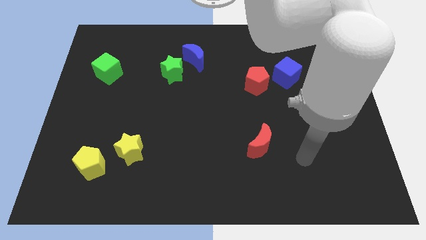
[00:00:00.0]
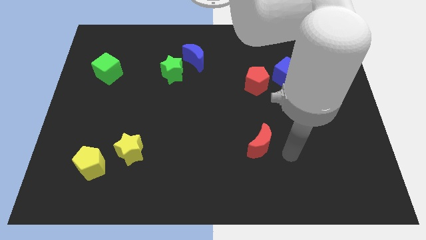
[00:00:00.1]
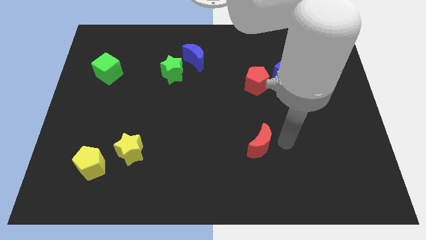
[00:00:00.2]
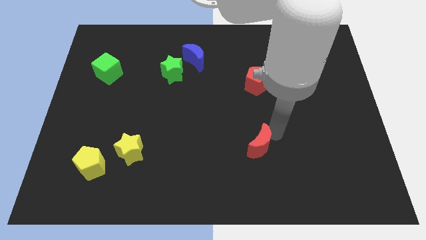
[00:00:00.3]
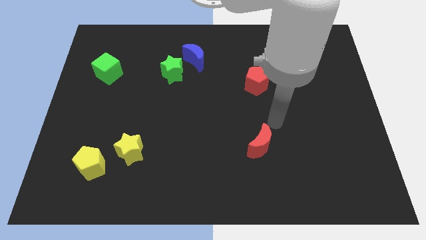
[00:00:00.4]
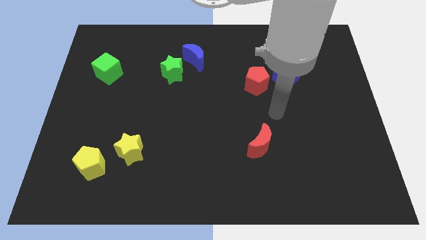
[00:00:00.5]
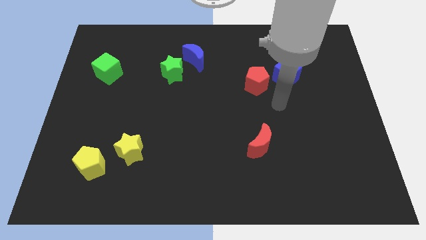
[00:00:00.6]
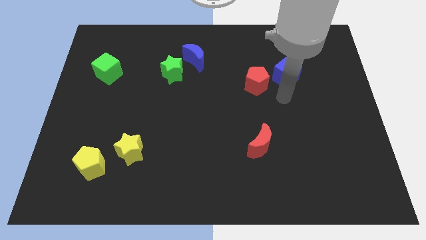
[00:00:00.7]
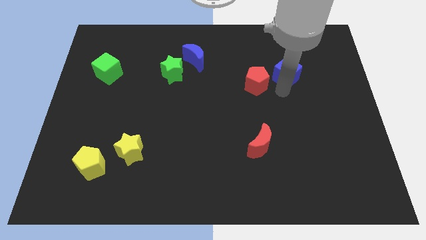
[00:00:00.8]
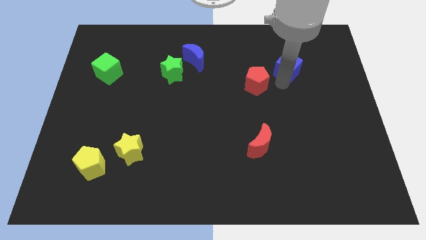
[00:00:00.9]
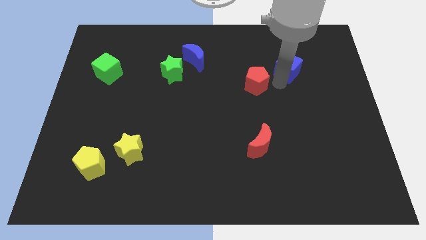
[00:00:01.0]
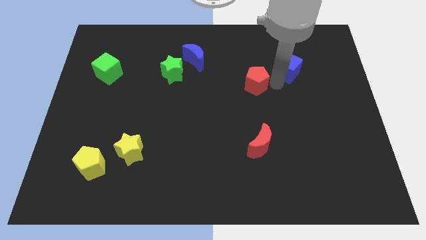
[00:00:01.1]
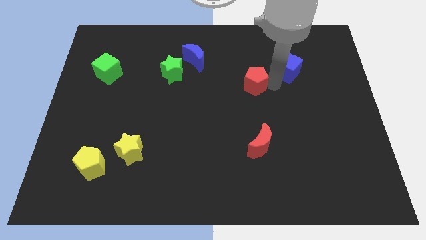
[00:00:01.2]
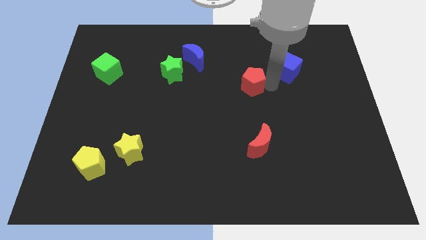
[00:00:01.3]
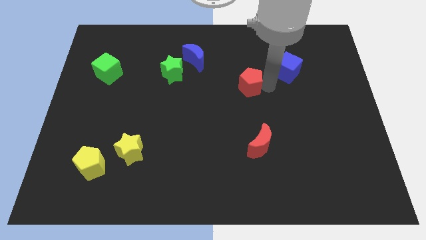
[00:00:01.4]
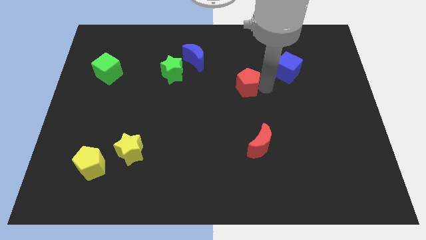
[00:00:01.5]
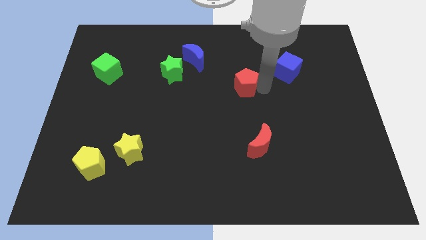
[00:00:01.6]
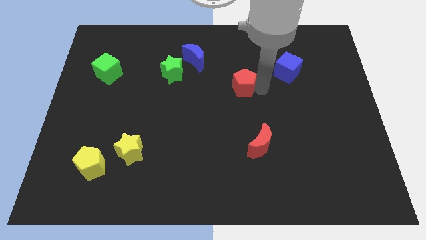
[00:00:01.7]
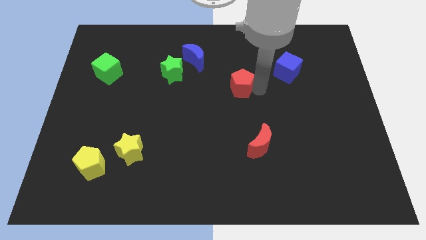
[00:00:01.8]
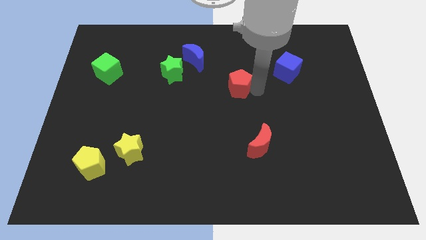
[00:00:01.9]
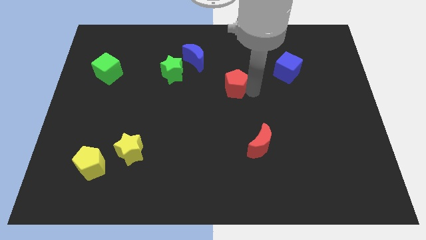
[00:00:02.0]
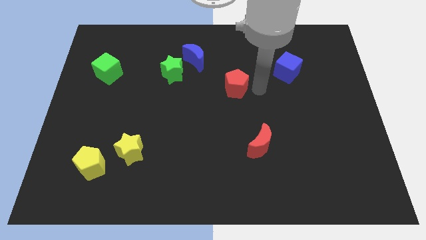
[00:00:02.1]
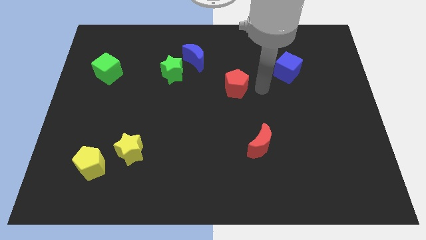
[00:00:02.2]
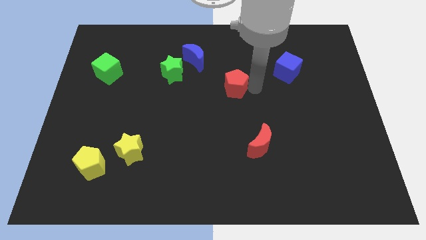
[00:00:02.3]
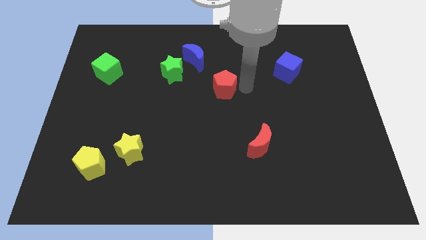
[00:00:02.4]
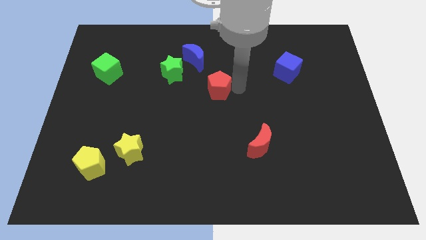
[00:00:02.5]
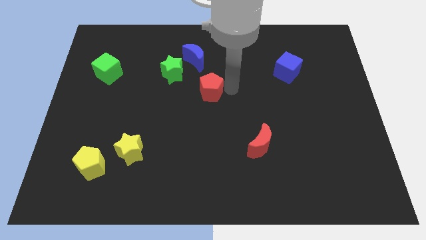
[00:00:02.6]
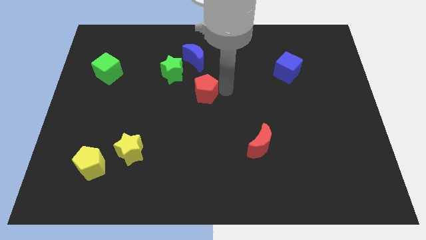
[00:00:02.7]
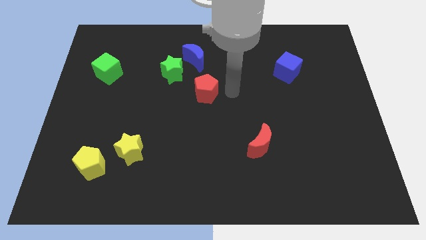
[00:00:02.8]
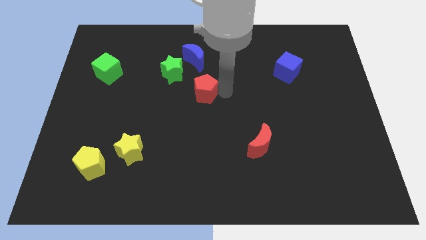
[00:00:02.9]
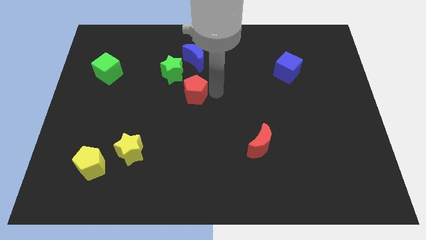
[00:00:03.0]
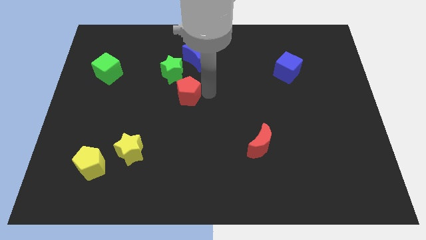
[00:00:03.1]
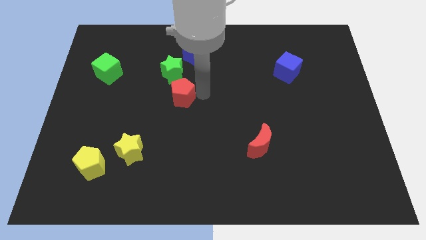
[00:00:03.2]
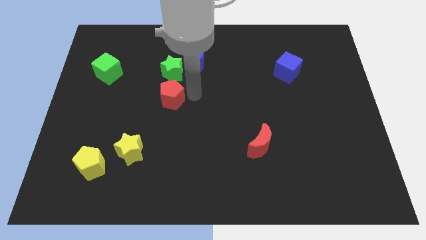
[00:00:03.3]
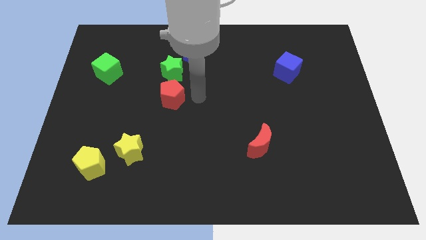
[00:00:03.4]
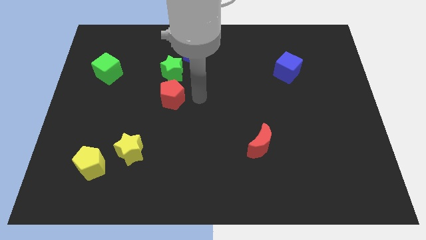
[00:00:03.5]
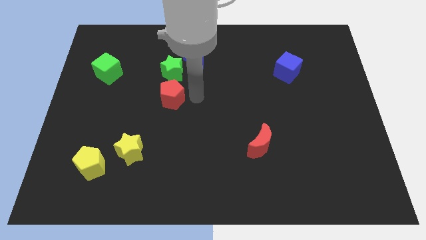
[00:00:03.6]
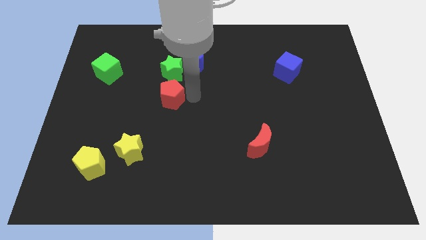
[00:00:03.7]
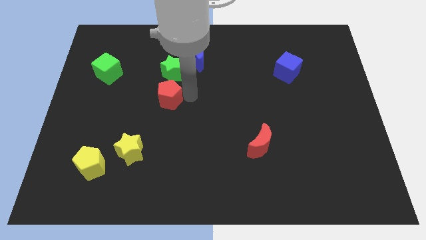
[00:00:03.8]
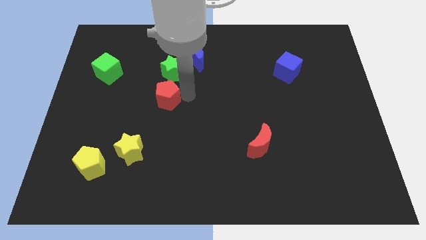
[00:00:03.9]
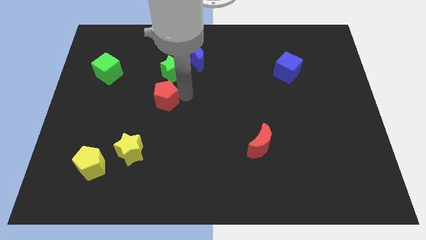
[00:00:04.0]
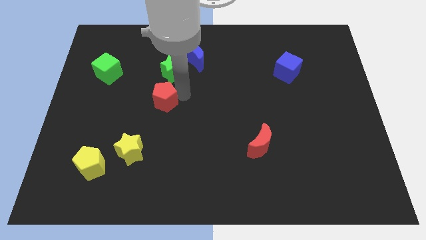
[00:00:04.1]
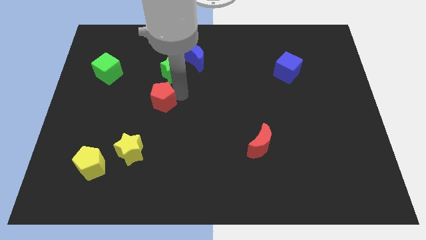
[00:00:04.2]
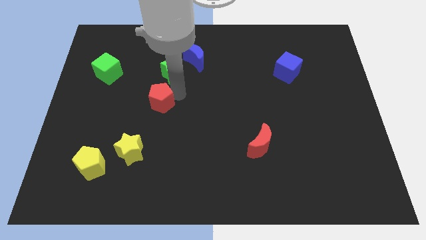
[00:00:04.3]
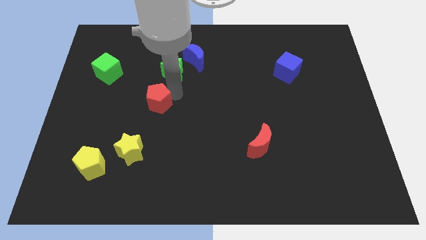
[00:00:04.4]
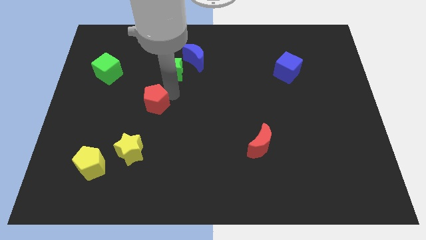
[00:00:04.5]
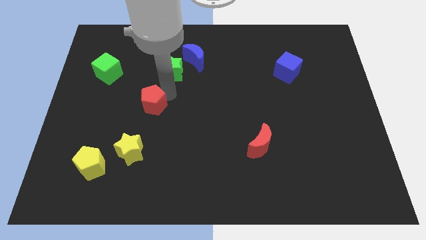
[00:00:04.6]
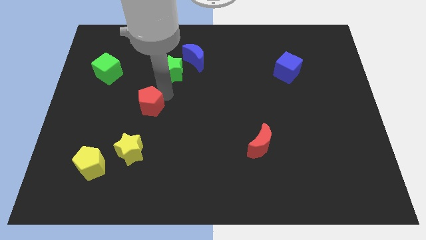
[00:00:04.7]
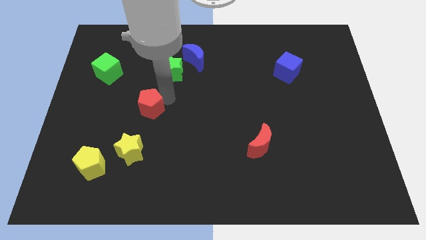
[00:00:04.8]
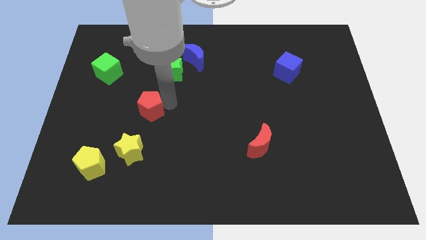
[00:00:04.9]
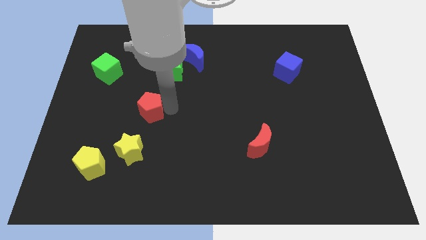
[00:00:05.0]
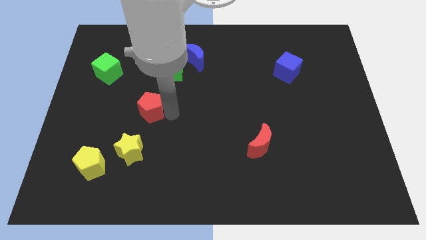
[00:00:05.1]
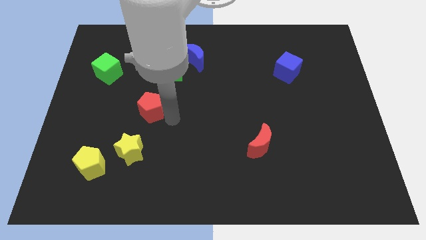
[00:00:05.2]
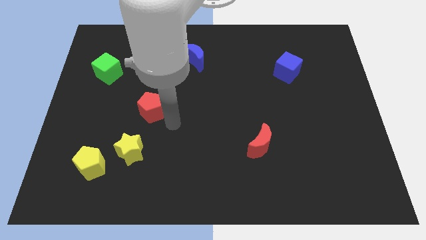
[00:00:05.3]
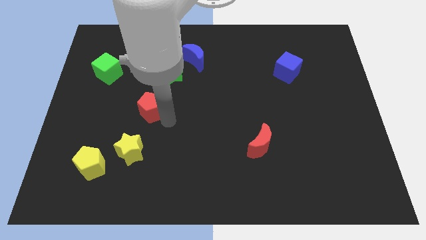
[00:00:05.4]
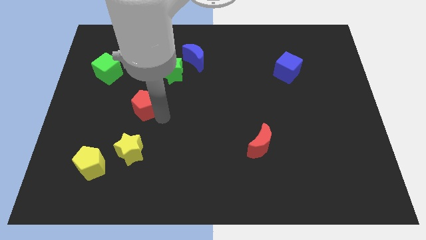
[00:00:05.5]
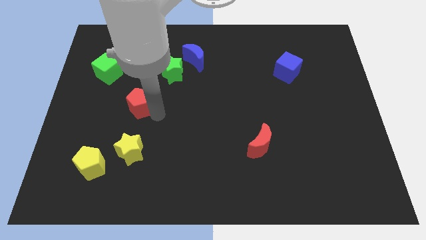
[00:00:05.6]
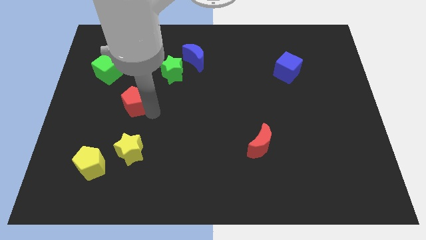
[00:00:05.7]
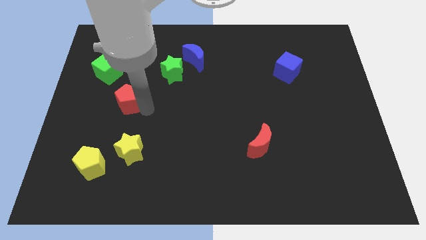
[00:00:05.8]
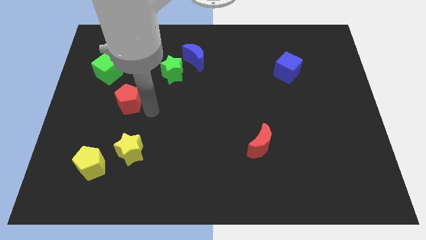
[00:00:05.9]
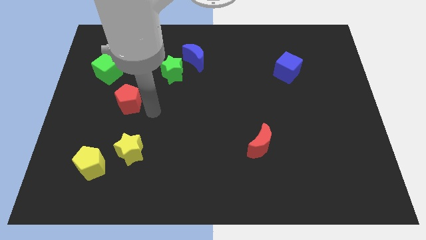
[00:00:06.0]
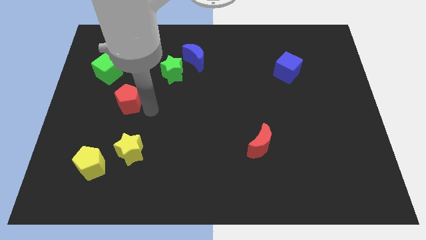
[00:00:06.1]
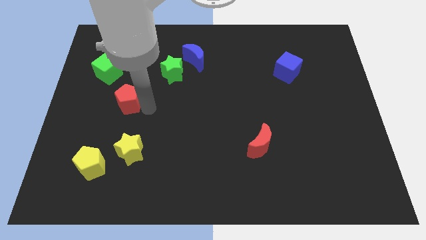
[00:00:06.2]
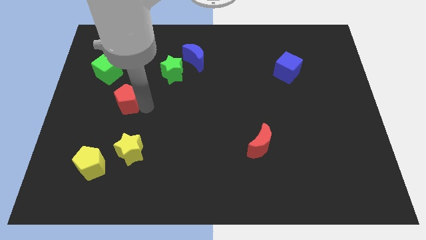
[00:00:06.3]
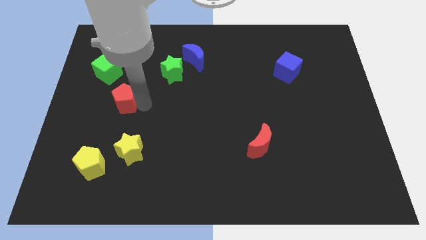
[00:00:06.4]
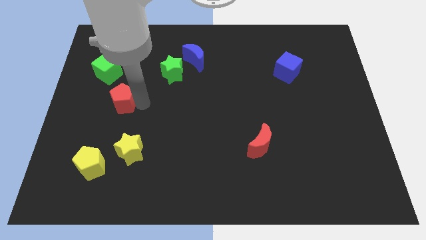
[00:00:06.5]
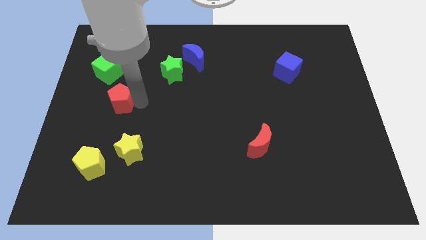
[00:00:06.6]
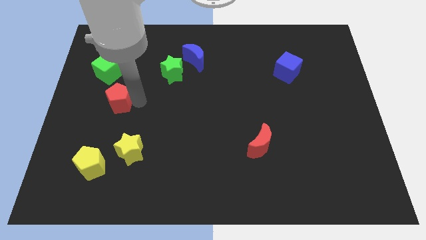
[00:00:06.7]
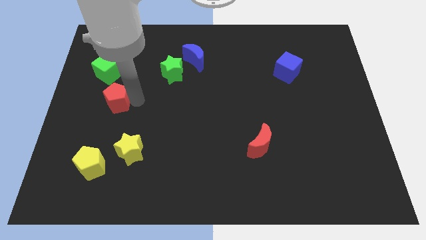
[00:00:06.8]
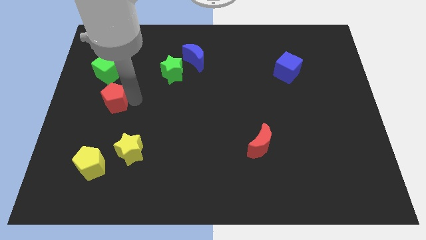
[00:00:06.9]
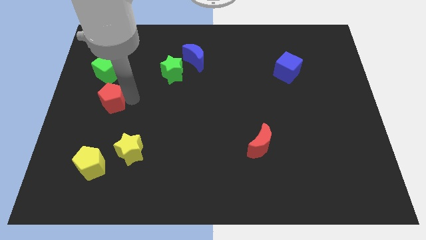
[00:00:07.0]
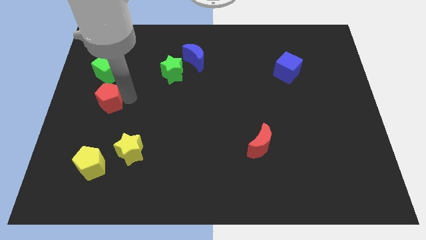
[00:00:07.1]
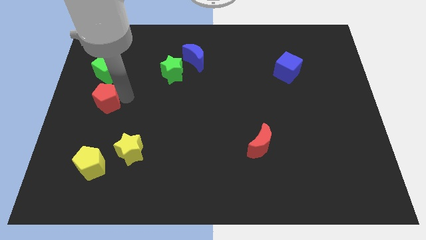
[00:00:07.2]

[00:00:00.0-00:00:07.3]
push the red pentagon to the left side of the board
